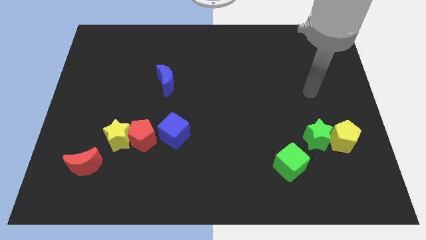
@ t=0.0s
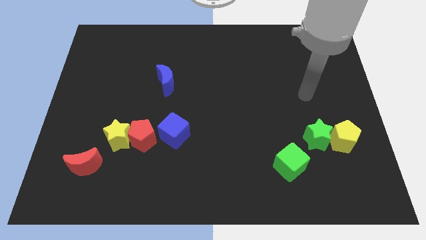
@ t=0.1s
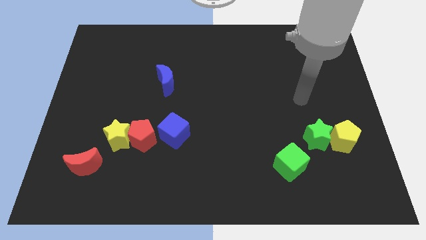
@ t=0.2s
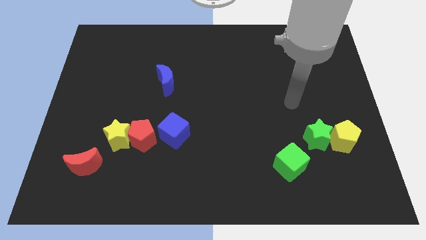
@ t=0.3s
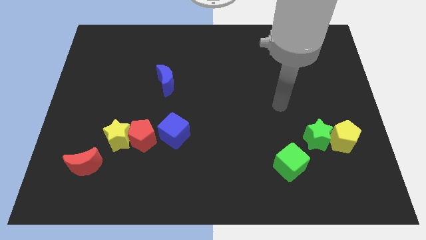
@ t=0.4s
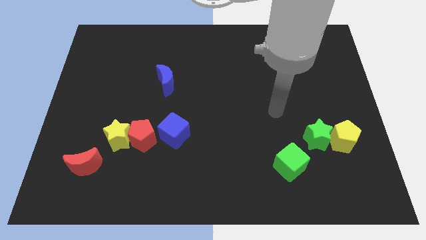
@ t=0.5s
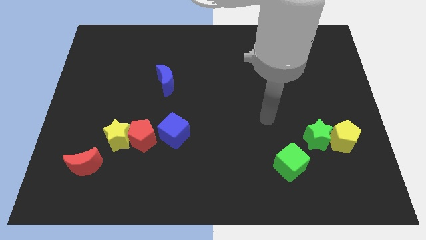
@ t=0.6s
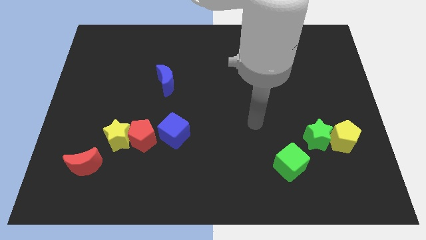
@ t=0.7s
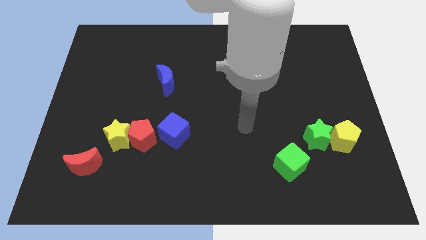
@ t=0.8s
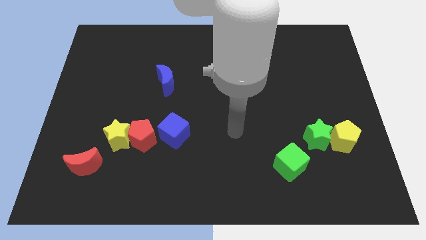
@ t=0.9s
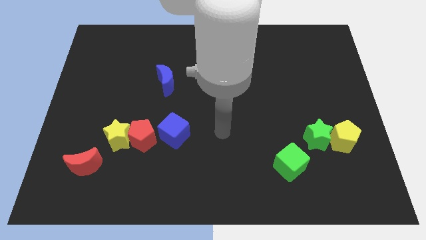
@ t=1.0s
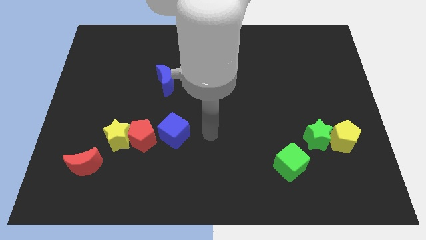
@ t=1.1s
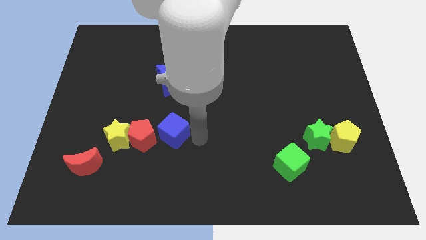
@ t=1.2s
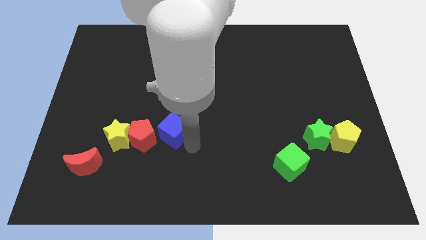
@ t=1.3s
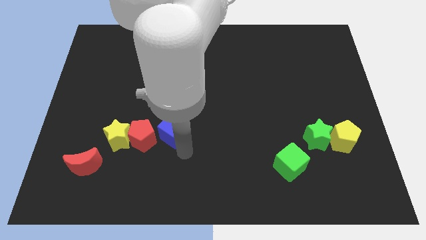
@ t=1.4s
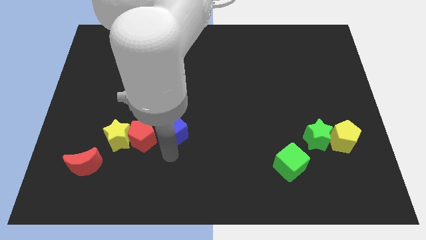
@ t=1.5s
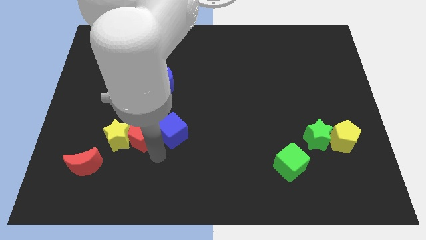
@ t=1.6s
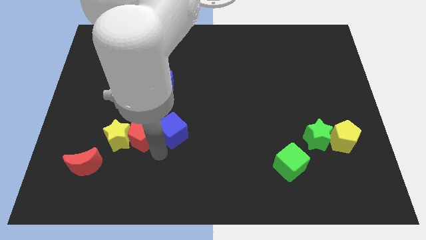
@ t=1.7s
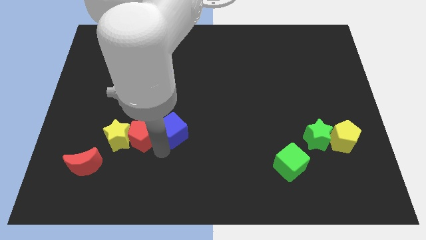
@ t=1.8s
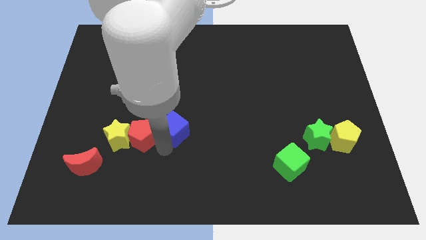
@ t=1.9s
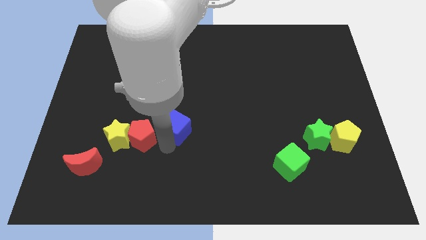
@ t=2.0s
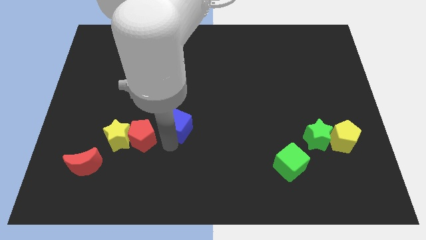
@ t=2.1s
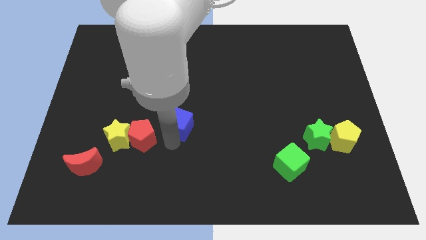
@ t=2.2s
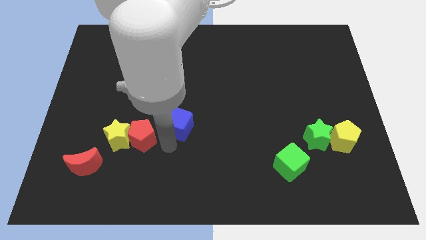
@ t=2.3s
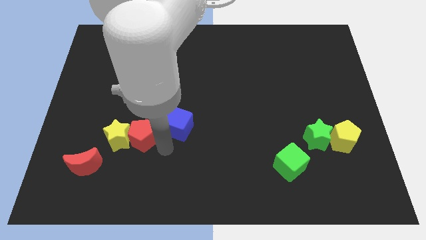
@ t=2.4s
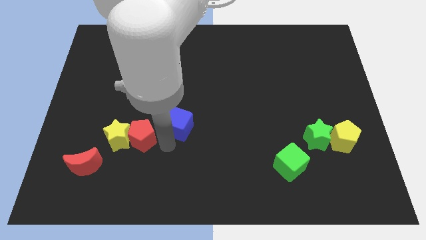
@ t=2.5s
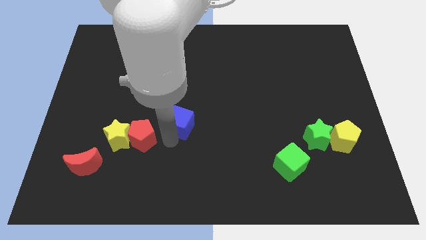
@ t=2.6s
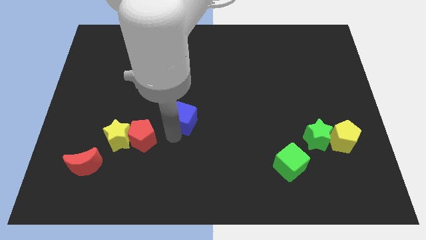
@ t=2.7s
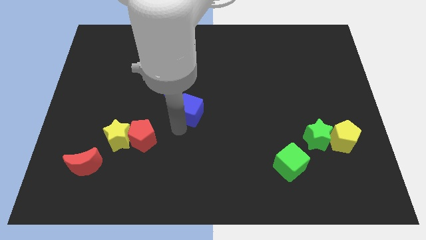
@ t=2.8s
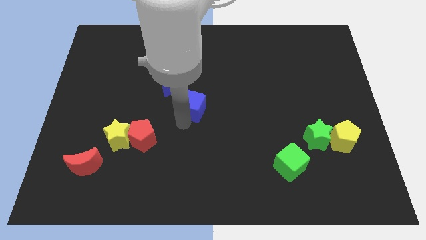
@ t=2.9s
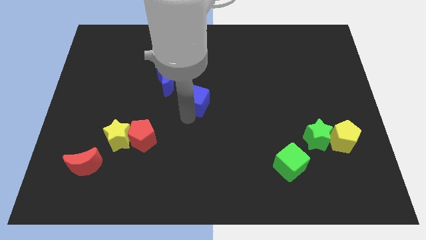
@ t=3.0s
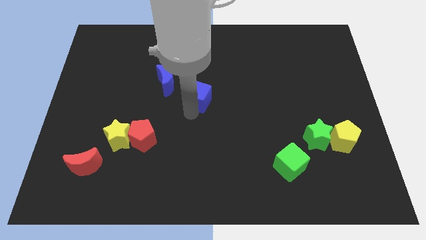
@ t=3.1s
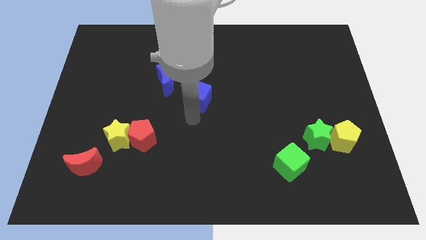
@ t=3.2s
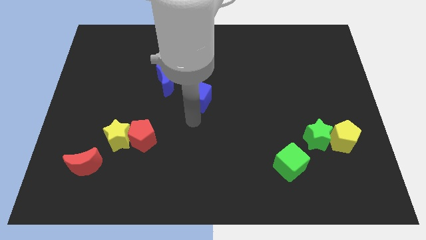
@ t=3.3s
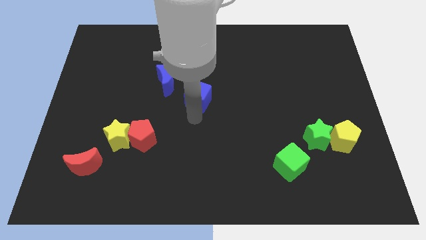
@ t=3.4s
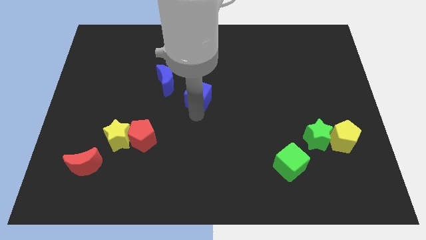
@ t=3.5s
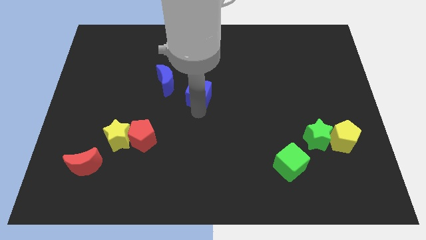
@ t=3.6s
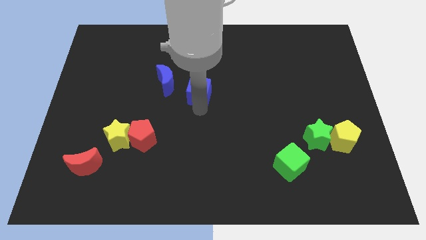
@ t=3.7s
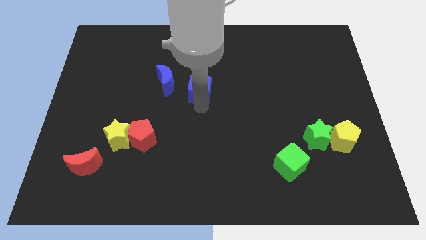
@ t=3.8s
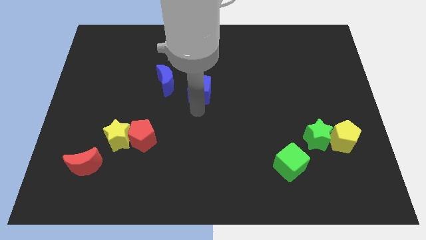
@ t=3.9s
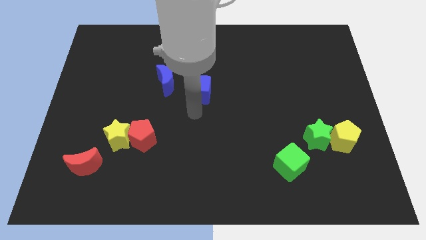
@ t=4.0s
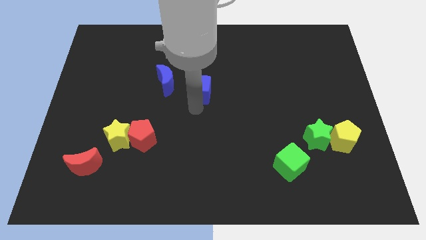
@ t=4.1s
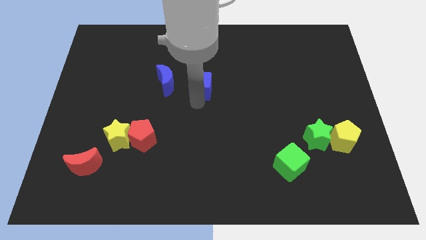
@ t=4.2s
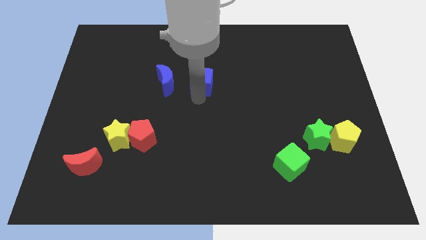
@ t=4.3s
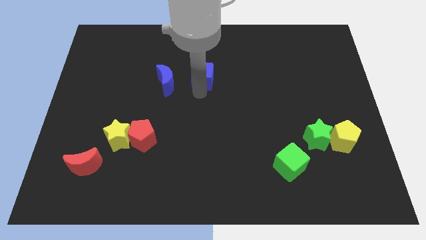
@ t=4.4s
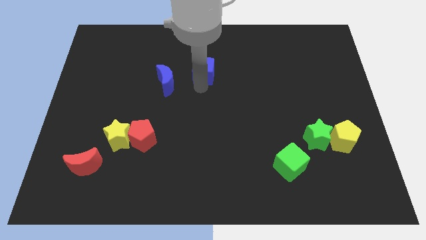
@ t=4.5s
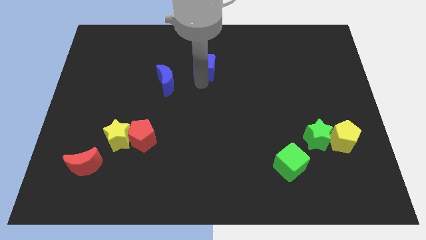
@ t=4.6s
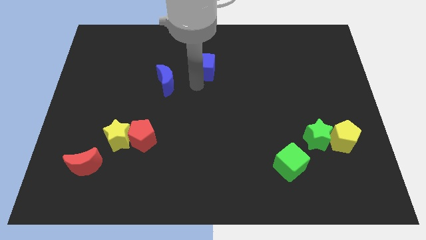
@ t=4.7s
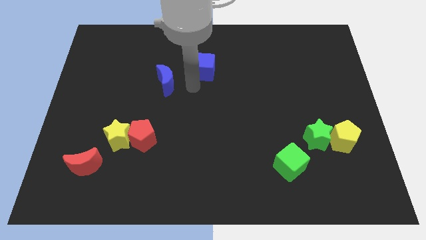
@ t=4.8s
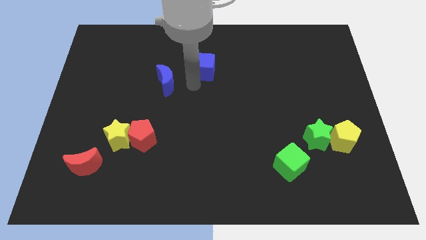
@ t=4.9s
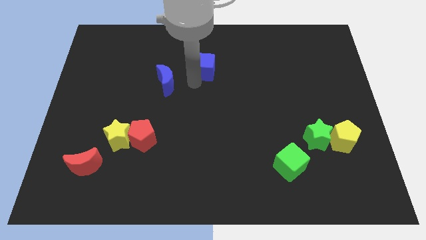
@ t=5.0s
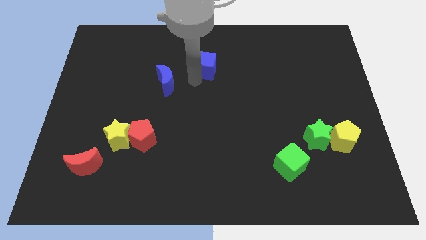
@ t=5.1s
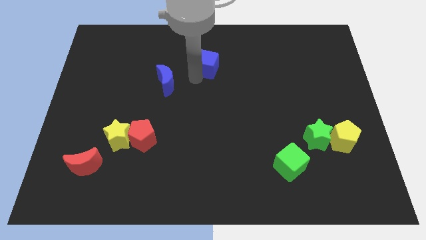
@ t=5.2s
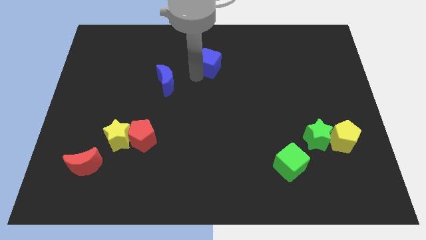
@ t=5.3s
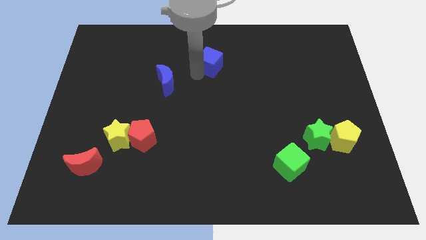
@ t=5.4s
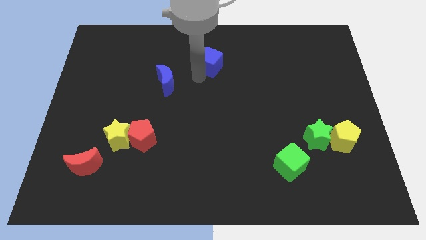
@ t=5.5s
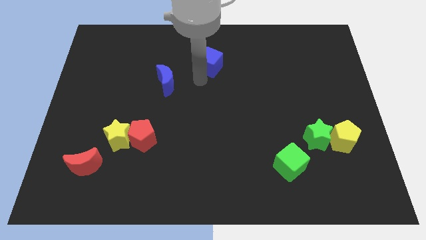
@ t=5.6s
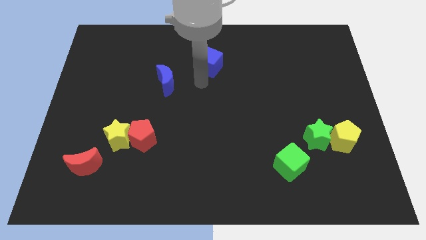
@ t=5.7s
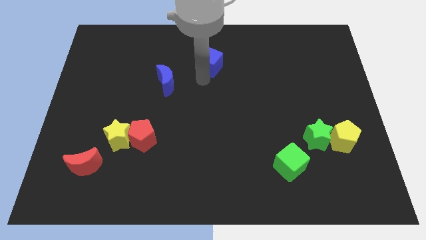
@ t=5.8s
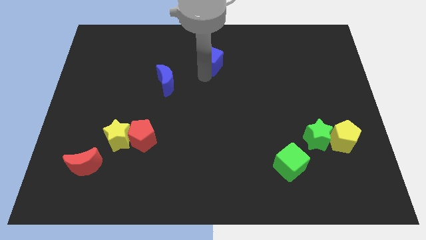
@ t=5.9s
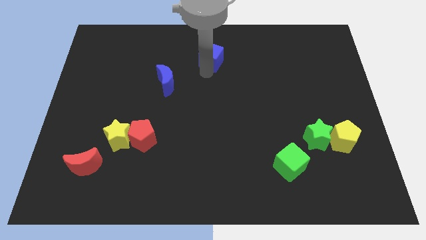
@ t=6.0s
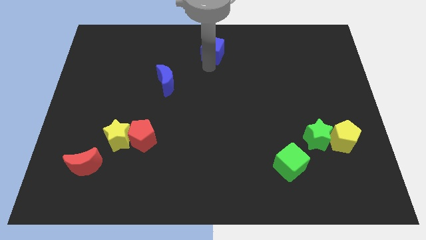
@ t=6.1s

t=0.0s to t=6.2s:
push the blue cube to the towards your base
